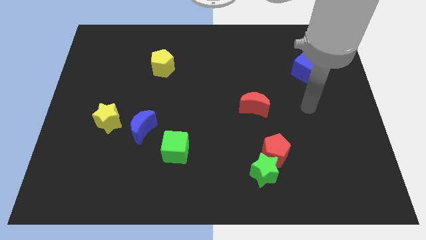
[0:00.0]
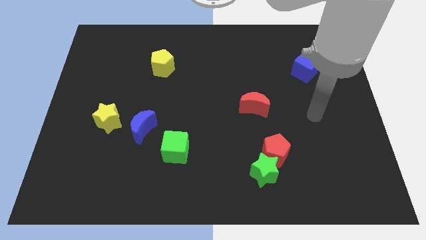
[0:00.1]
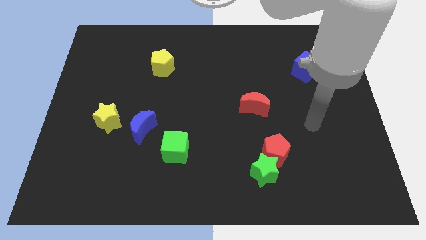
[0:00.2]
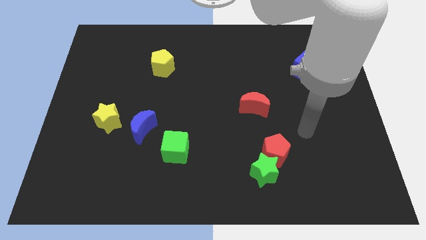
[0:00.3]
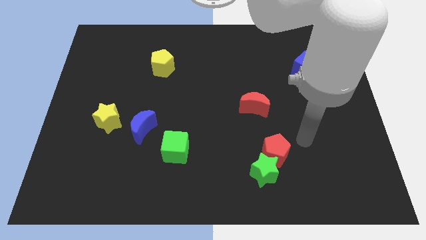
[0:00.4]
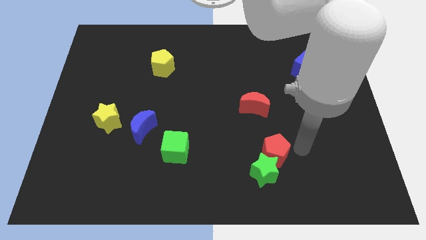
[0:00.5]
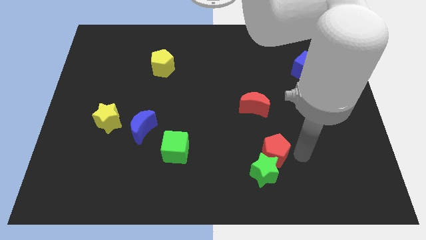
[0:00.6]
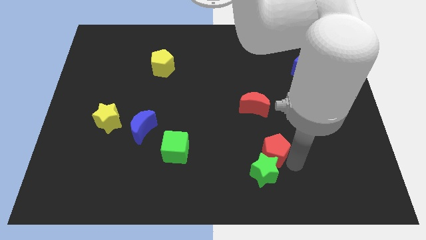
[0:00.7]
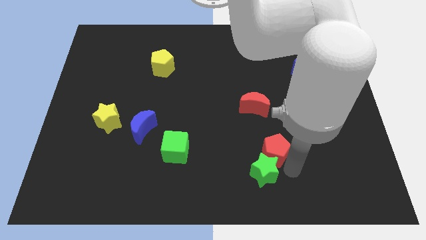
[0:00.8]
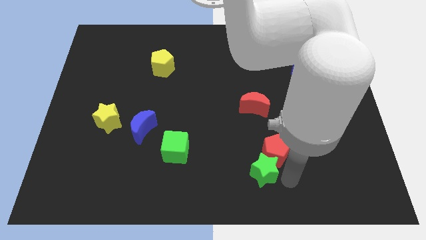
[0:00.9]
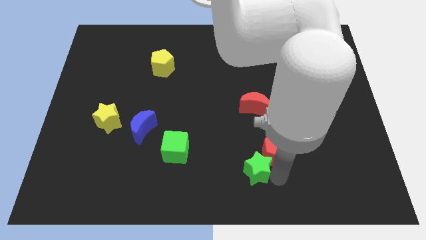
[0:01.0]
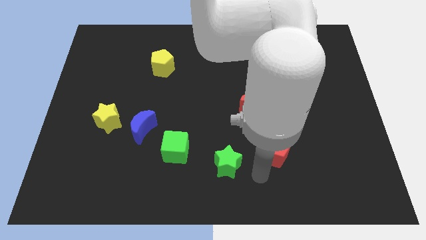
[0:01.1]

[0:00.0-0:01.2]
pull the red pentagon apart from the green star

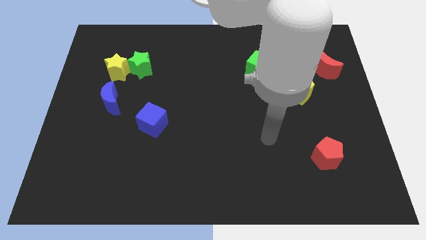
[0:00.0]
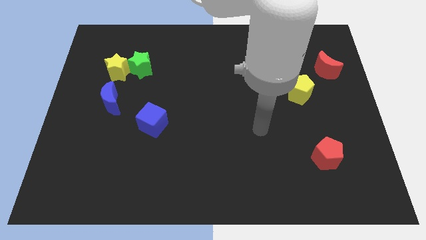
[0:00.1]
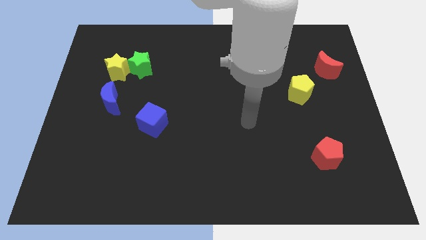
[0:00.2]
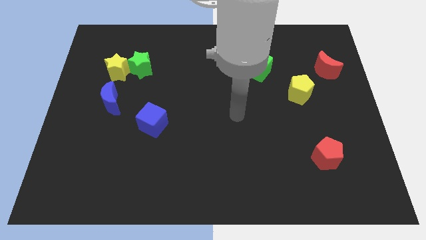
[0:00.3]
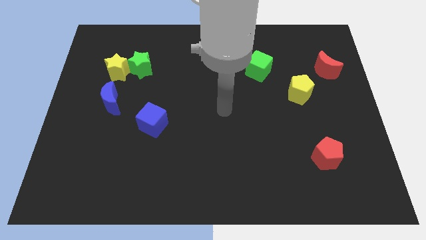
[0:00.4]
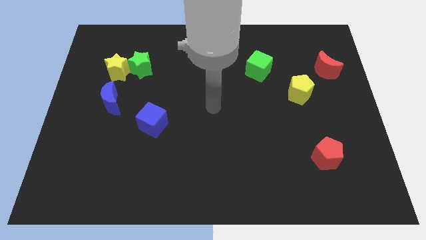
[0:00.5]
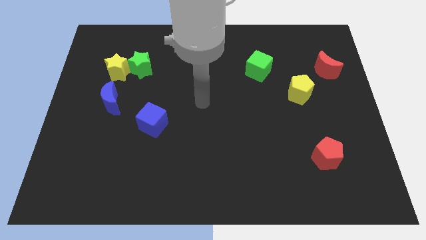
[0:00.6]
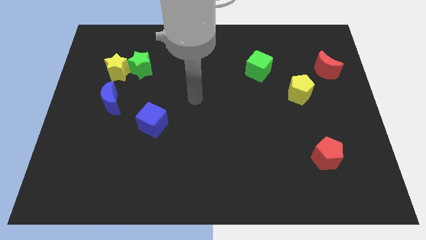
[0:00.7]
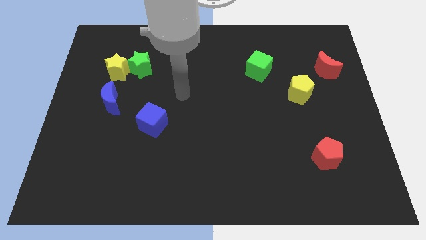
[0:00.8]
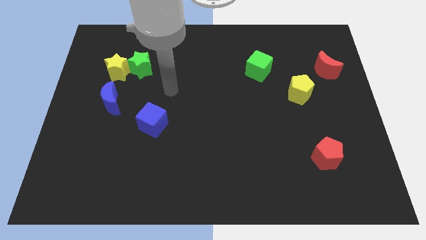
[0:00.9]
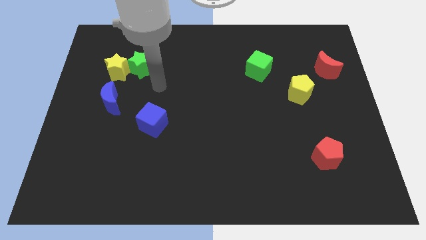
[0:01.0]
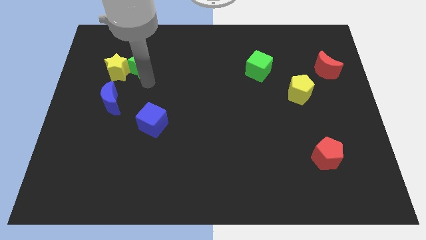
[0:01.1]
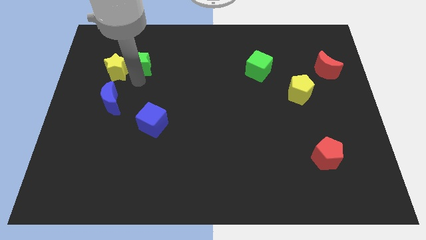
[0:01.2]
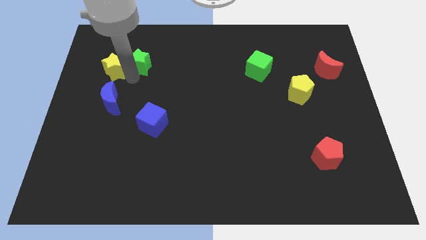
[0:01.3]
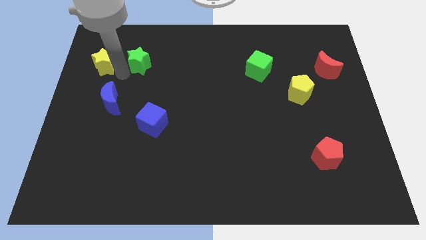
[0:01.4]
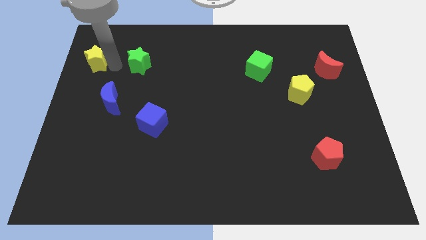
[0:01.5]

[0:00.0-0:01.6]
pull the green star apart from the yellow star

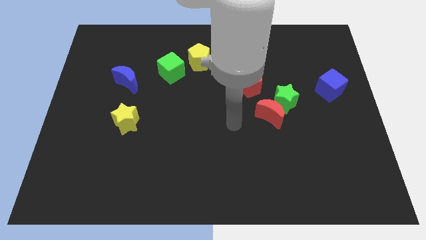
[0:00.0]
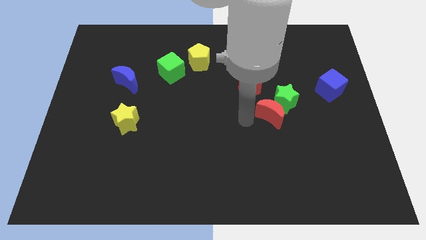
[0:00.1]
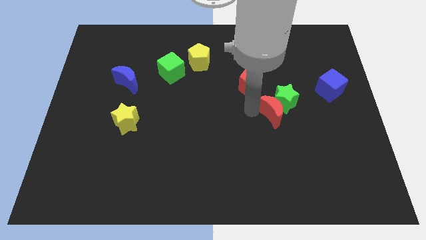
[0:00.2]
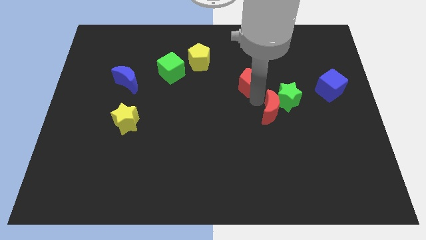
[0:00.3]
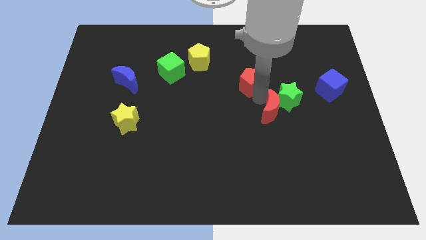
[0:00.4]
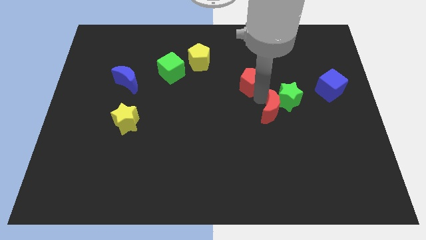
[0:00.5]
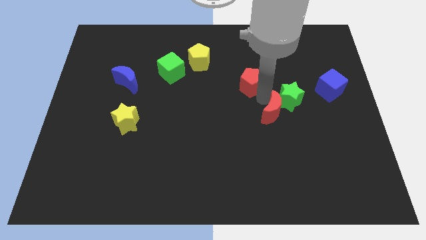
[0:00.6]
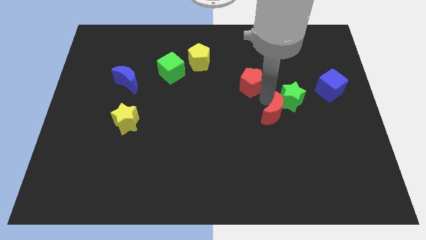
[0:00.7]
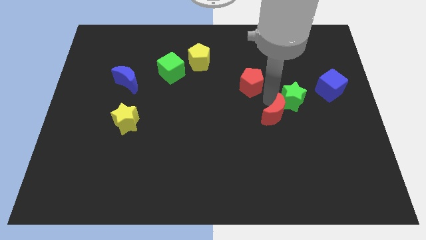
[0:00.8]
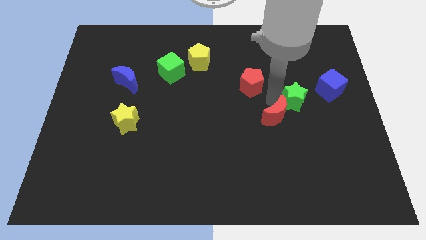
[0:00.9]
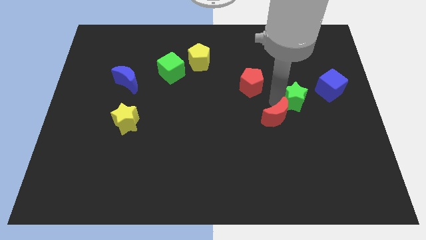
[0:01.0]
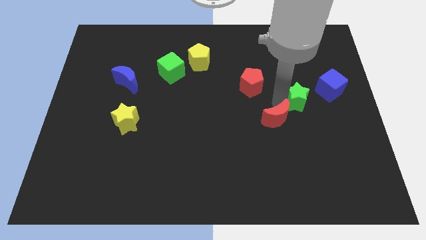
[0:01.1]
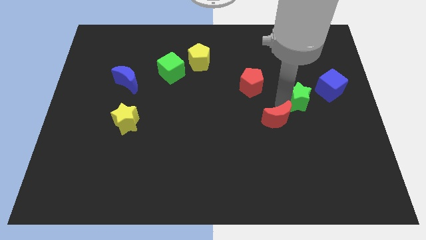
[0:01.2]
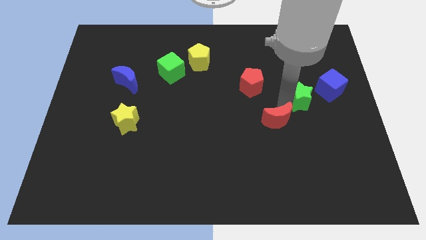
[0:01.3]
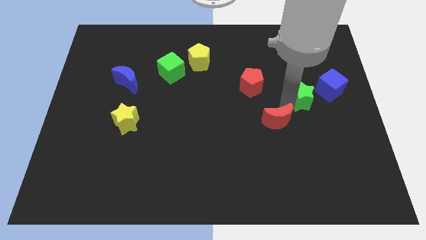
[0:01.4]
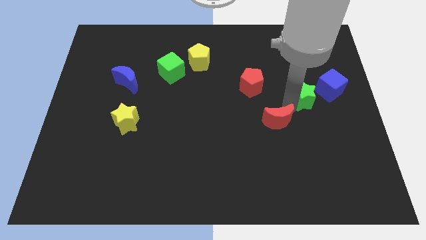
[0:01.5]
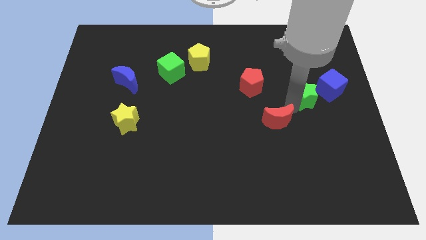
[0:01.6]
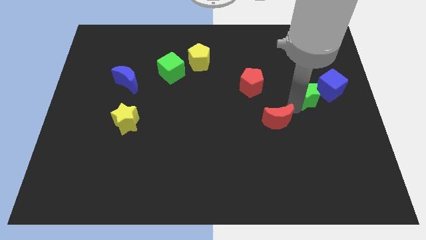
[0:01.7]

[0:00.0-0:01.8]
move the green star away from the red moon and red pentagon

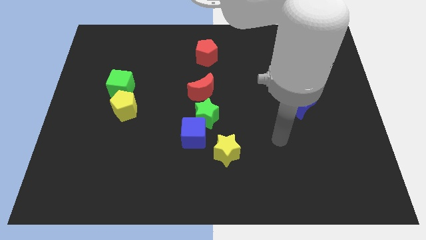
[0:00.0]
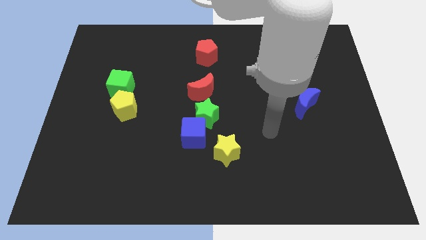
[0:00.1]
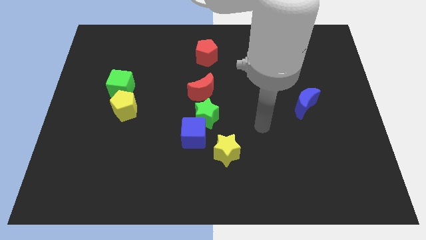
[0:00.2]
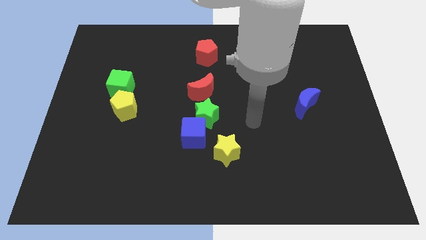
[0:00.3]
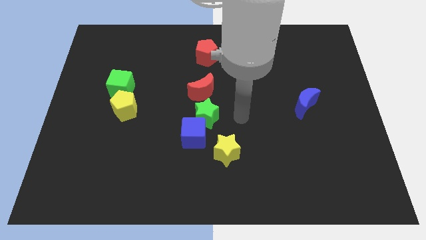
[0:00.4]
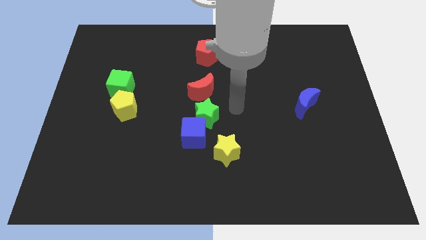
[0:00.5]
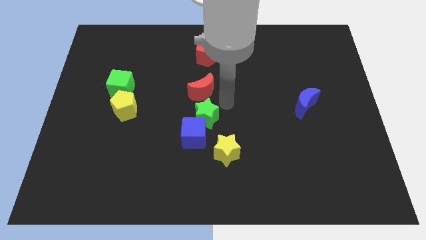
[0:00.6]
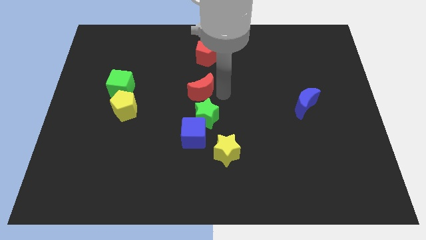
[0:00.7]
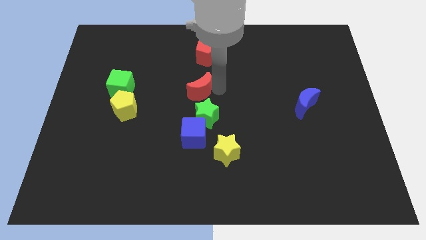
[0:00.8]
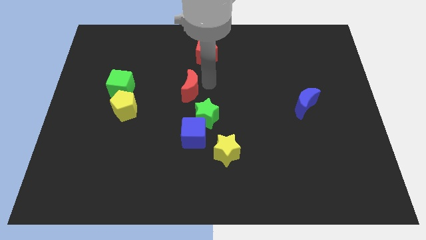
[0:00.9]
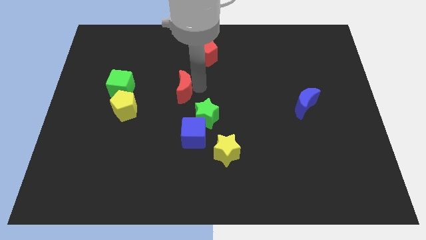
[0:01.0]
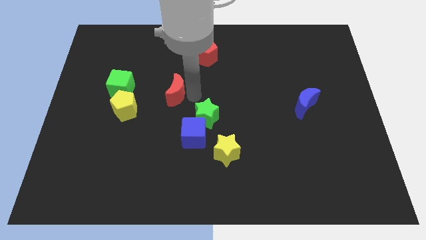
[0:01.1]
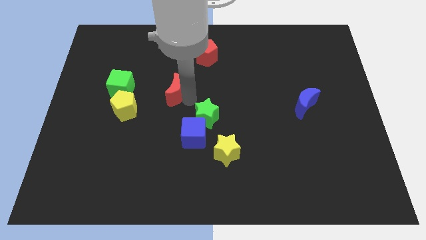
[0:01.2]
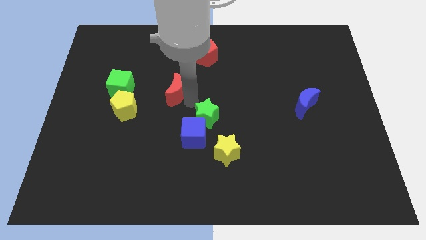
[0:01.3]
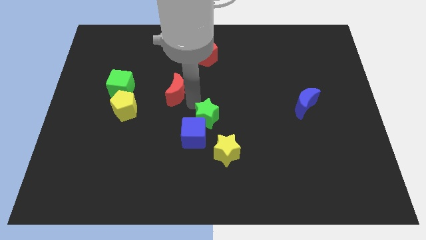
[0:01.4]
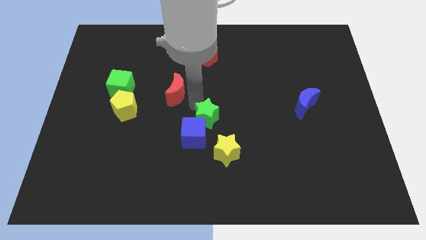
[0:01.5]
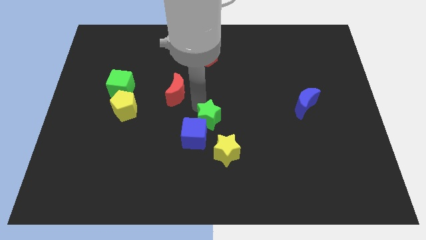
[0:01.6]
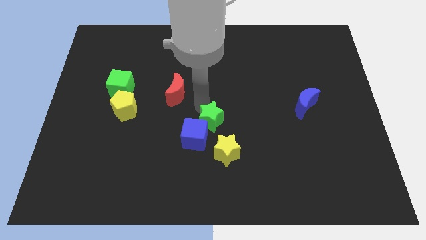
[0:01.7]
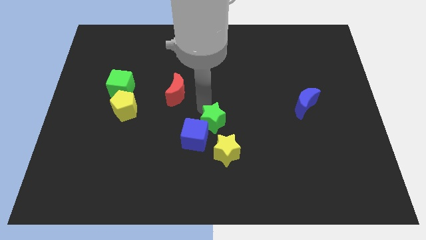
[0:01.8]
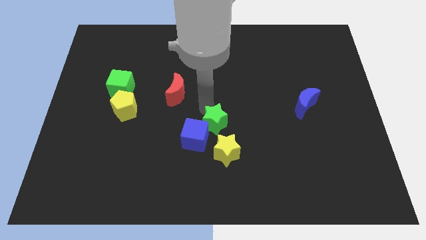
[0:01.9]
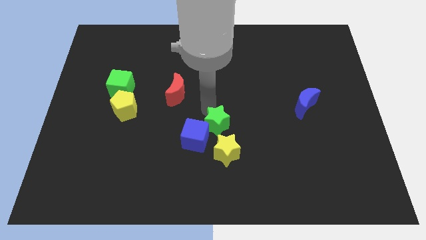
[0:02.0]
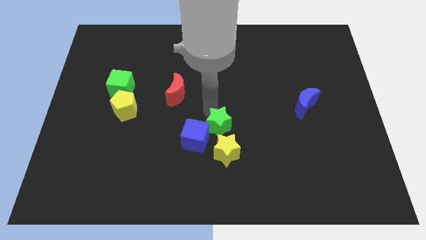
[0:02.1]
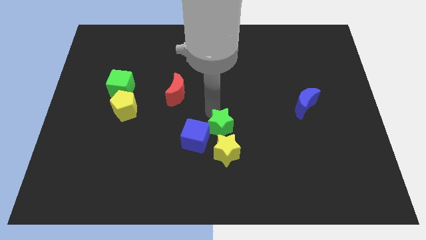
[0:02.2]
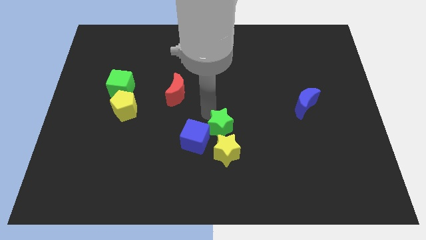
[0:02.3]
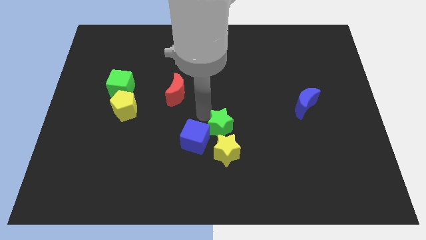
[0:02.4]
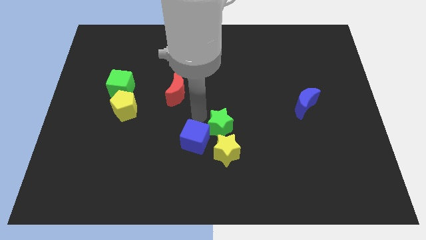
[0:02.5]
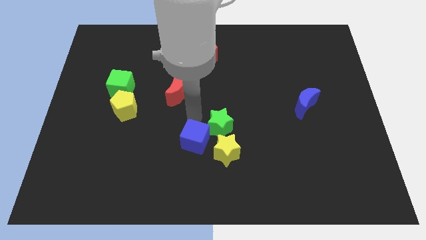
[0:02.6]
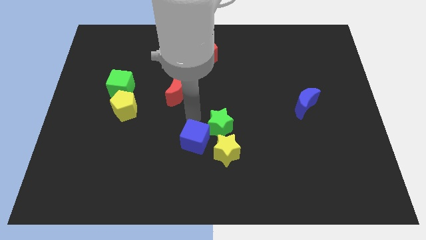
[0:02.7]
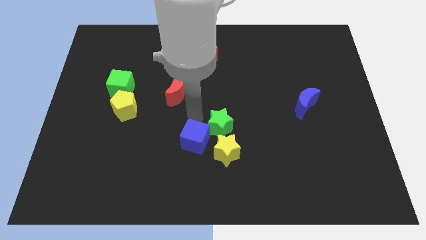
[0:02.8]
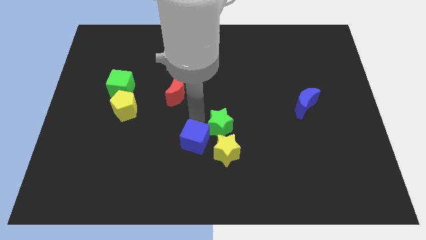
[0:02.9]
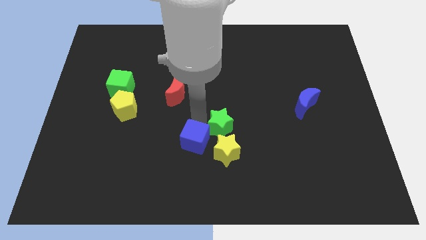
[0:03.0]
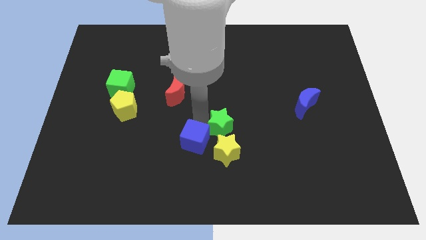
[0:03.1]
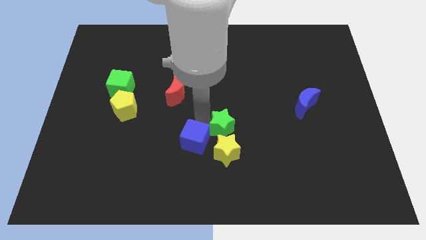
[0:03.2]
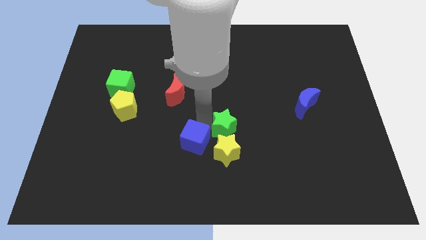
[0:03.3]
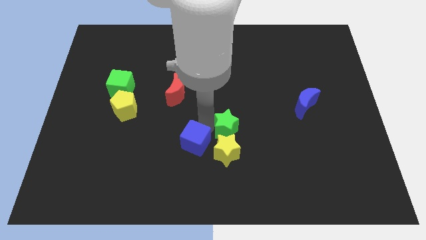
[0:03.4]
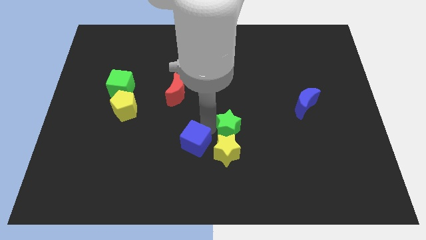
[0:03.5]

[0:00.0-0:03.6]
move the green star away from the blue cube and red moon

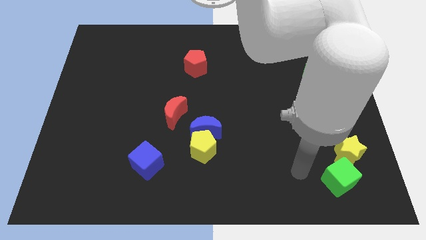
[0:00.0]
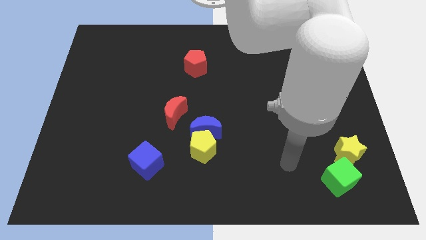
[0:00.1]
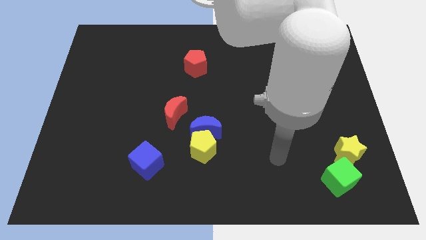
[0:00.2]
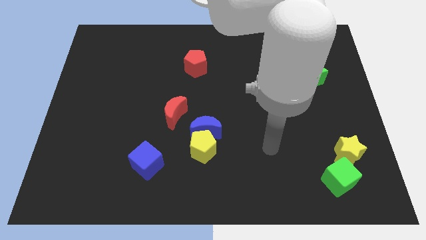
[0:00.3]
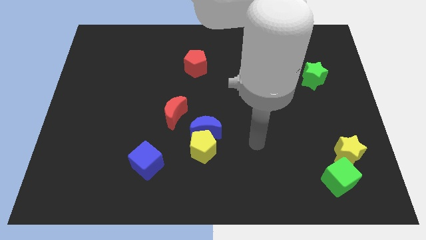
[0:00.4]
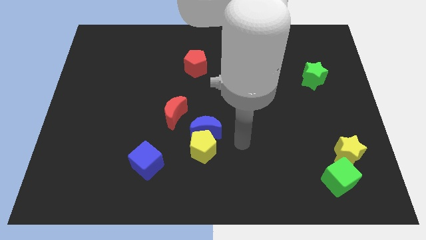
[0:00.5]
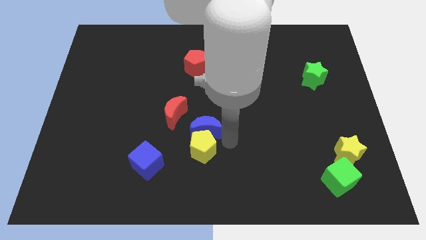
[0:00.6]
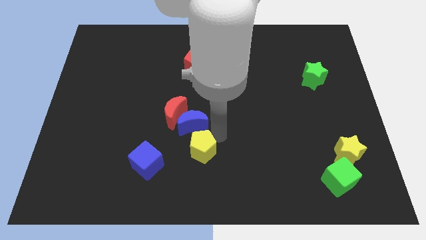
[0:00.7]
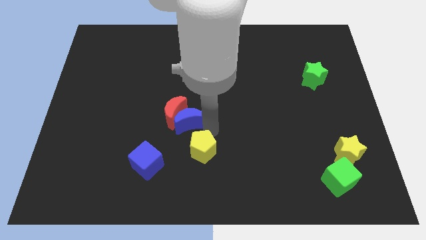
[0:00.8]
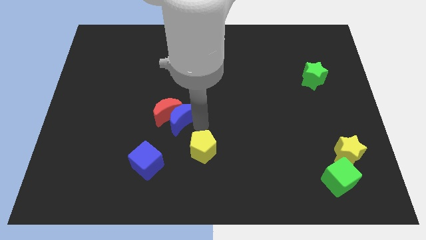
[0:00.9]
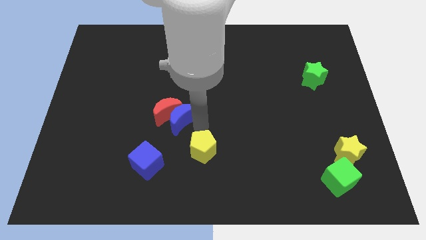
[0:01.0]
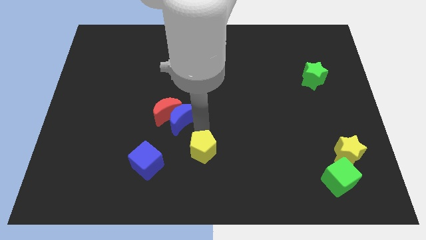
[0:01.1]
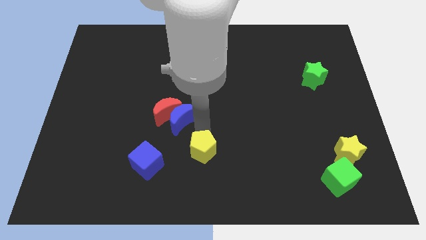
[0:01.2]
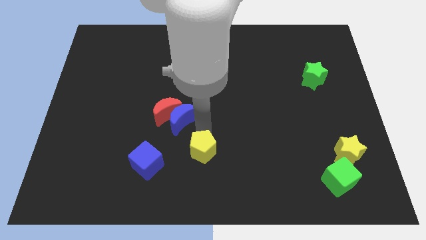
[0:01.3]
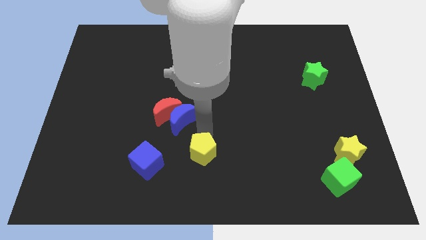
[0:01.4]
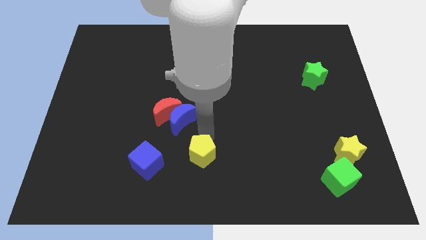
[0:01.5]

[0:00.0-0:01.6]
move the yellow pentagon away from the blue moon
